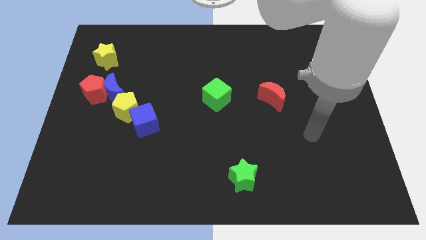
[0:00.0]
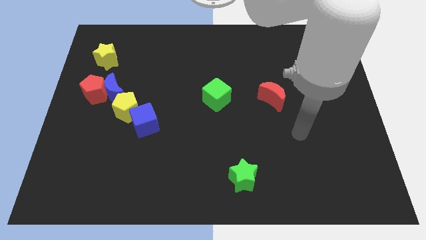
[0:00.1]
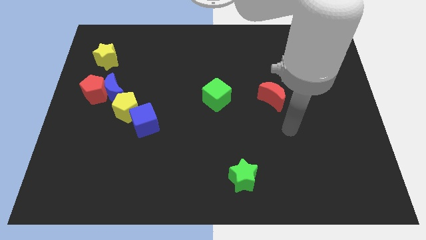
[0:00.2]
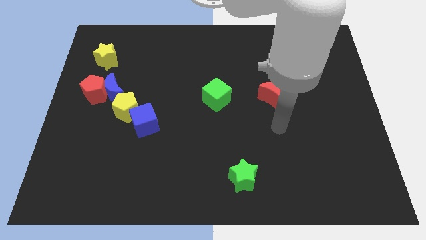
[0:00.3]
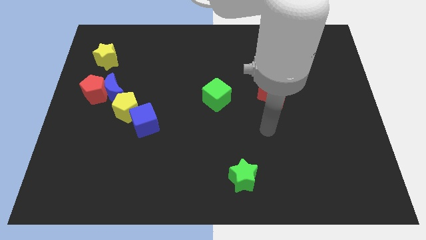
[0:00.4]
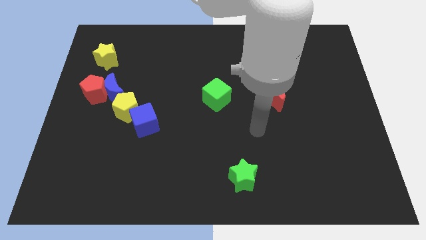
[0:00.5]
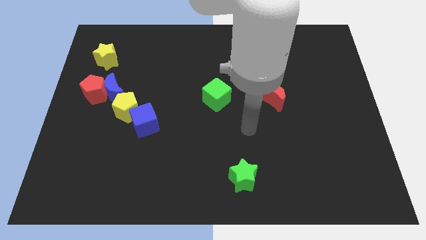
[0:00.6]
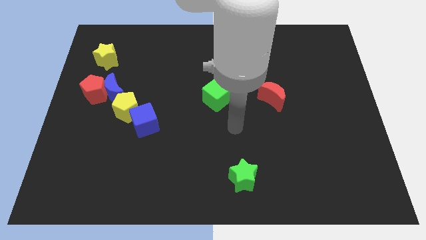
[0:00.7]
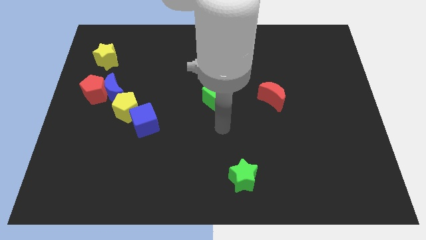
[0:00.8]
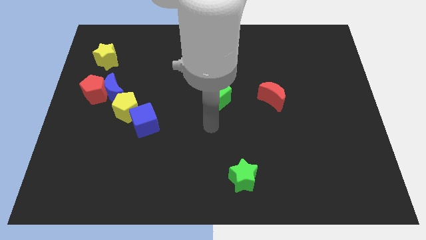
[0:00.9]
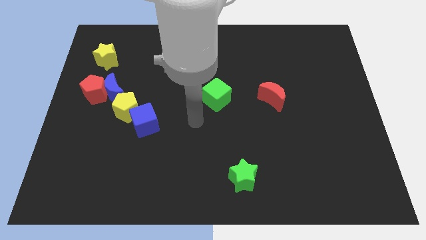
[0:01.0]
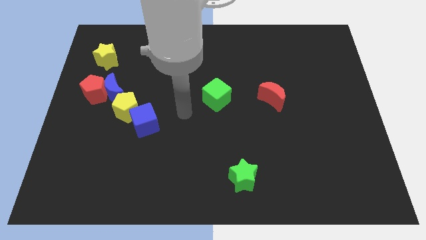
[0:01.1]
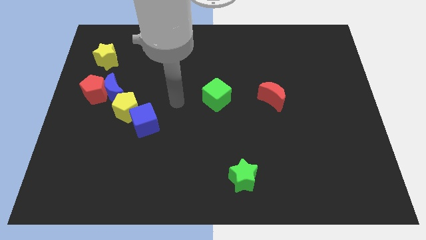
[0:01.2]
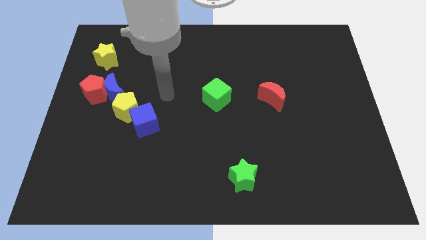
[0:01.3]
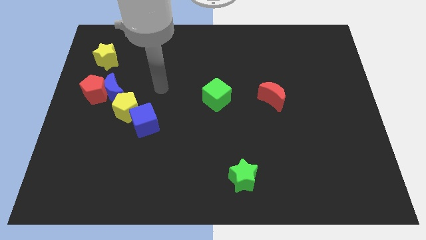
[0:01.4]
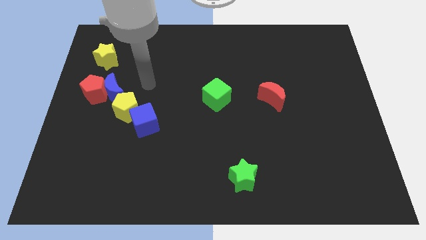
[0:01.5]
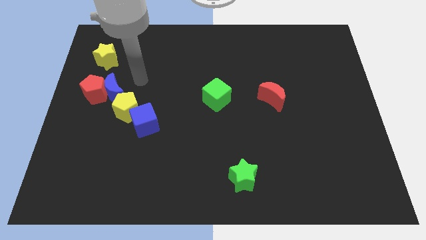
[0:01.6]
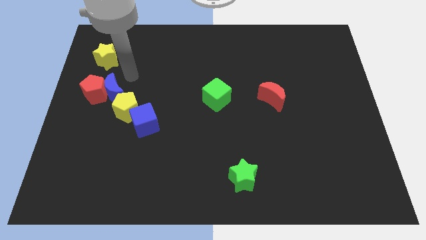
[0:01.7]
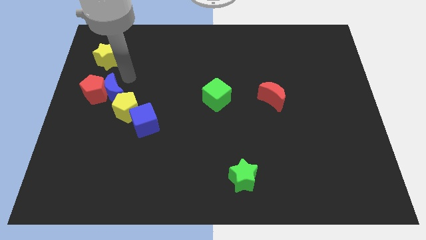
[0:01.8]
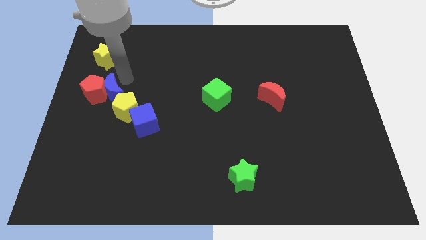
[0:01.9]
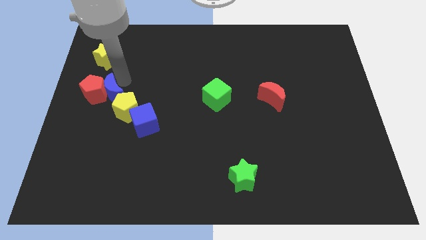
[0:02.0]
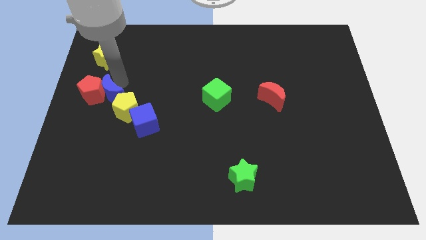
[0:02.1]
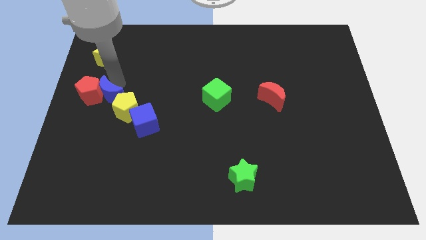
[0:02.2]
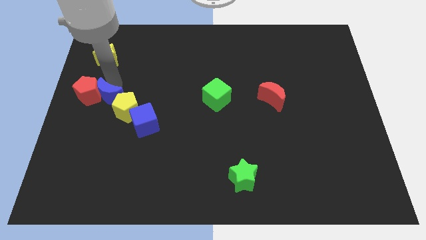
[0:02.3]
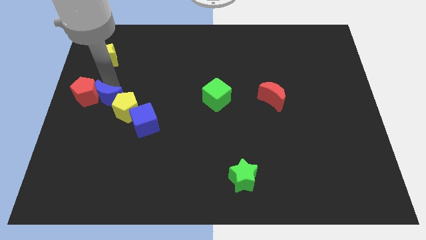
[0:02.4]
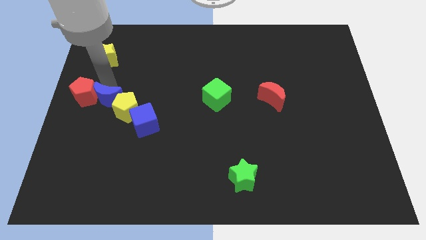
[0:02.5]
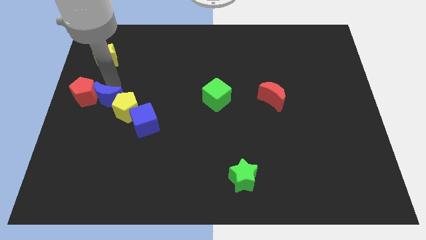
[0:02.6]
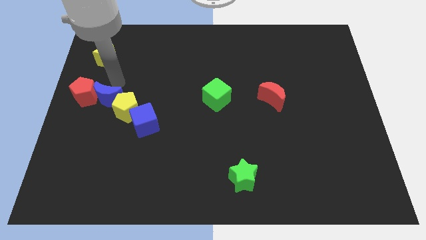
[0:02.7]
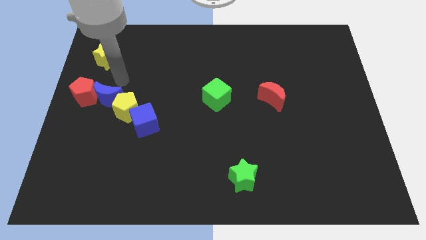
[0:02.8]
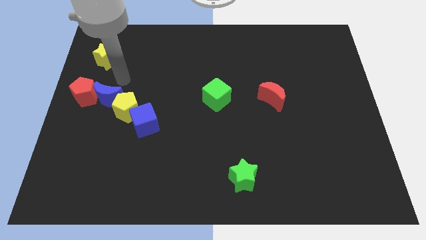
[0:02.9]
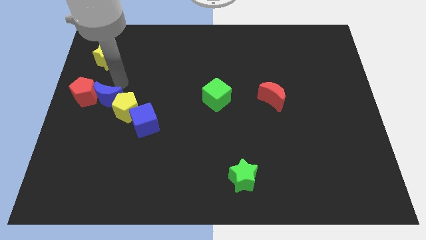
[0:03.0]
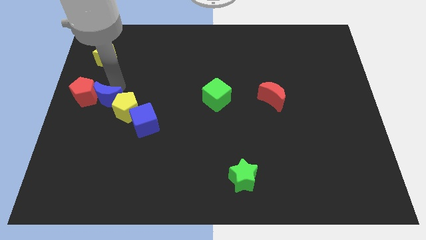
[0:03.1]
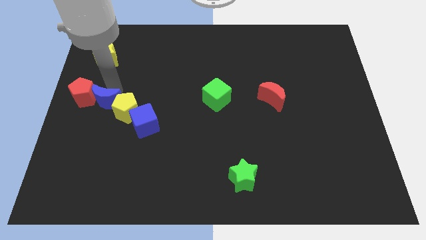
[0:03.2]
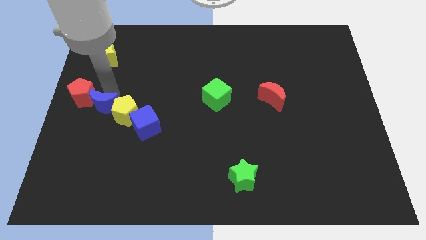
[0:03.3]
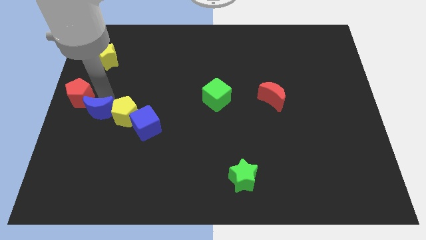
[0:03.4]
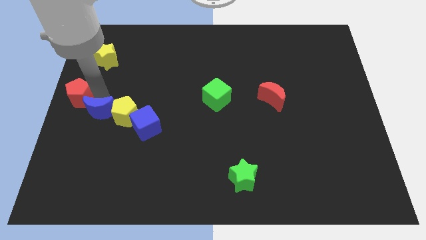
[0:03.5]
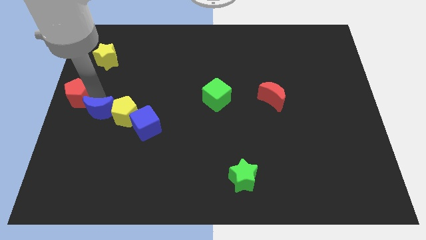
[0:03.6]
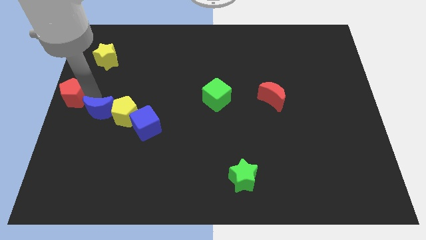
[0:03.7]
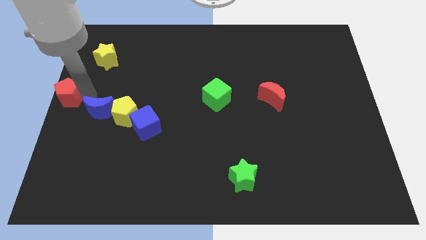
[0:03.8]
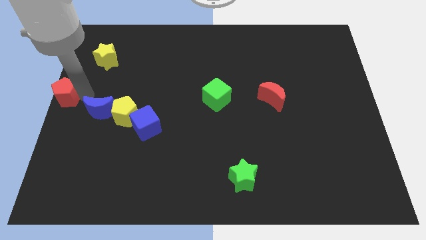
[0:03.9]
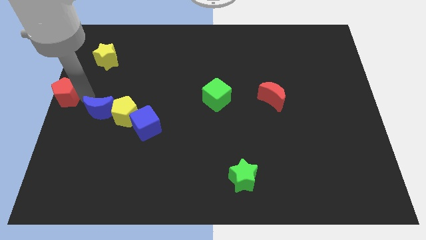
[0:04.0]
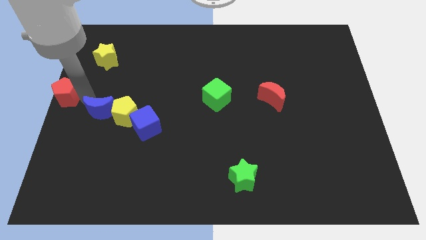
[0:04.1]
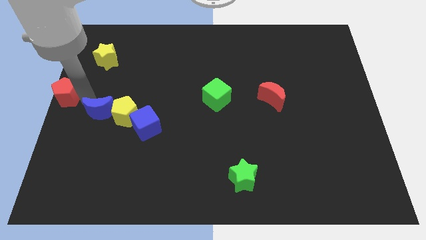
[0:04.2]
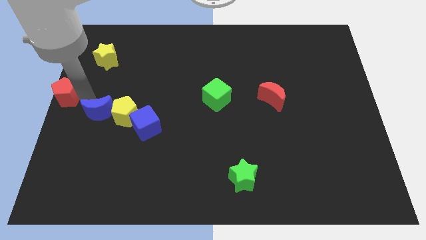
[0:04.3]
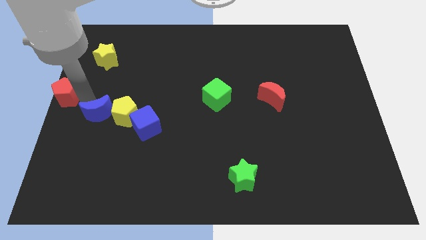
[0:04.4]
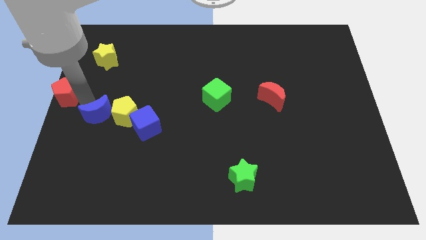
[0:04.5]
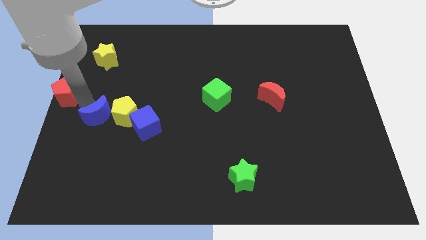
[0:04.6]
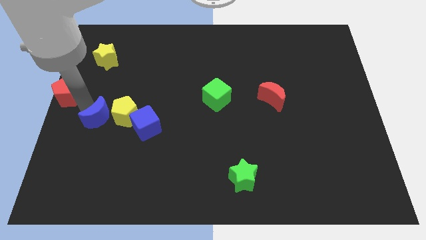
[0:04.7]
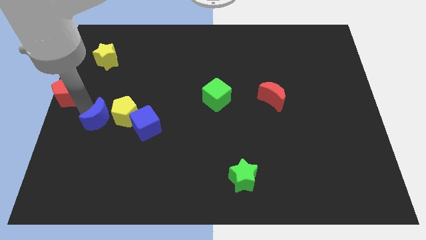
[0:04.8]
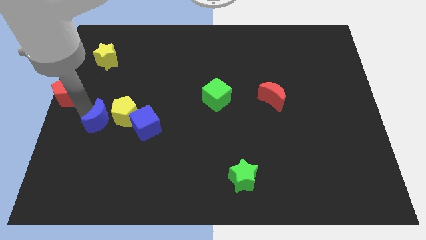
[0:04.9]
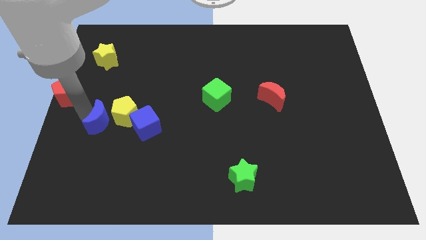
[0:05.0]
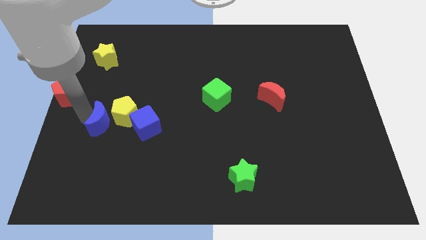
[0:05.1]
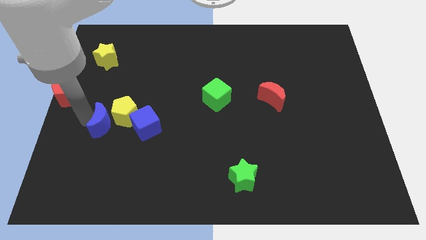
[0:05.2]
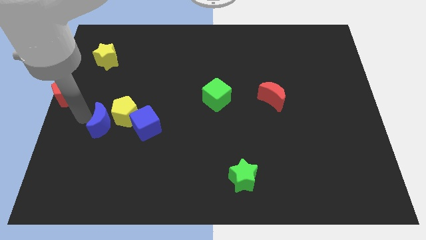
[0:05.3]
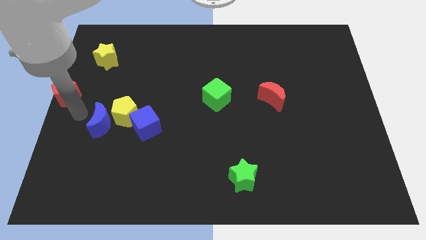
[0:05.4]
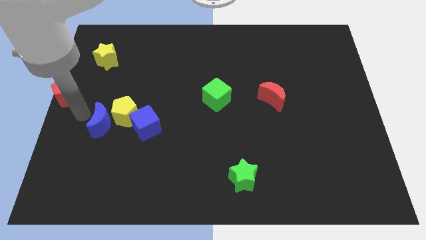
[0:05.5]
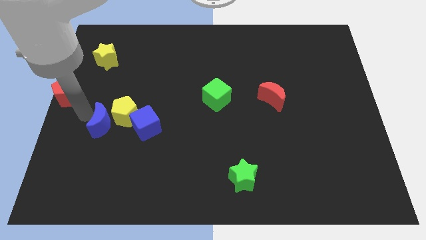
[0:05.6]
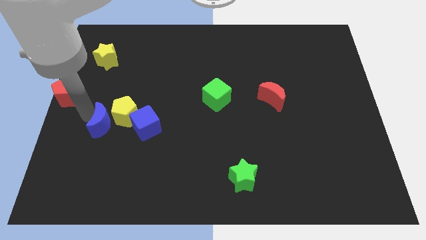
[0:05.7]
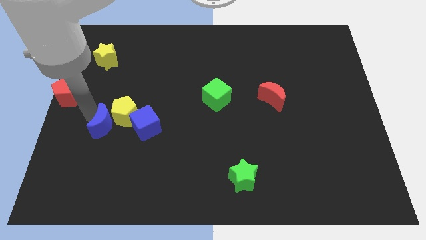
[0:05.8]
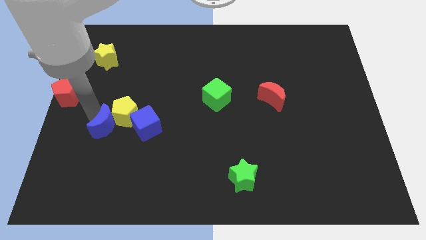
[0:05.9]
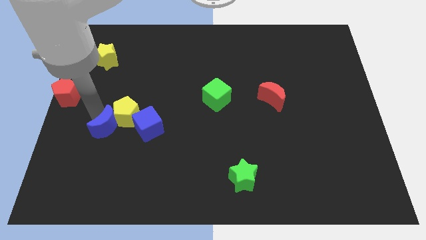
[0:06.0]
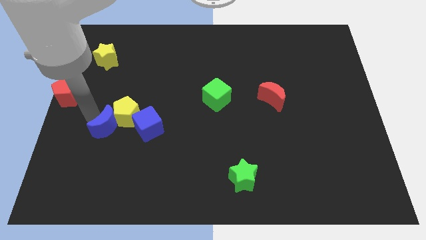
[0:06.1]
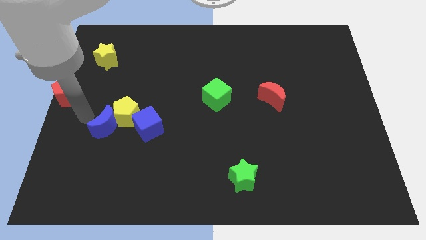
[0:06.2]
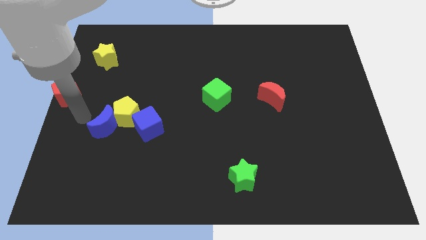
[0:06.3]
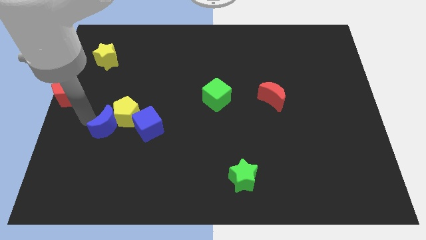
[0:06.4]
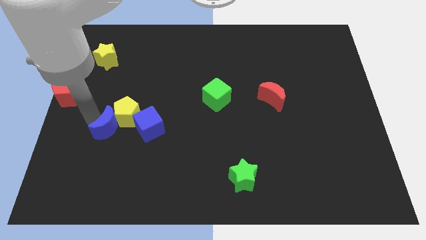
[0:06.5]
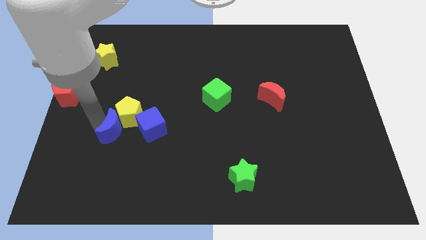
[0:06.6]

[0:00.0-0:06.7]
push the blue moon slightly downwards and to the right diagonally

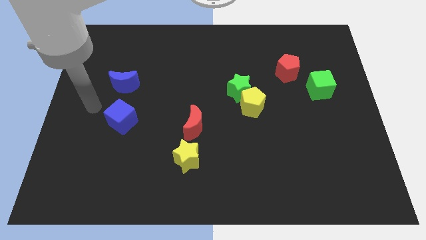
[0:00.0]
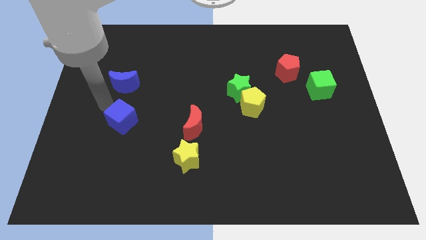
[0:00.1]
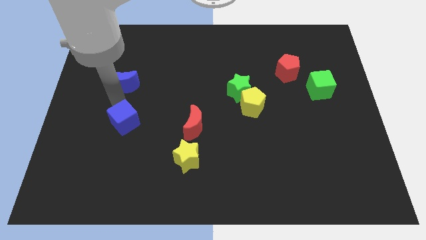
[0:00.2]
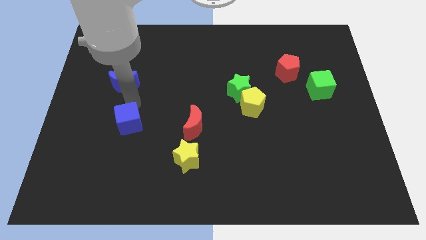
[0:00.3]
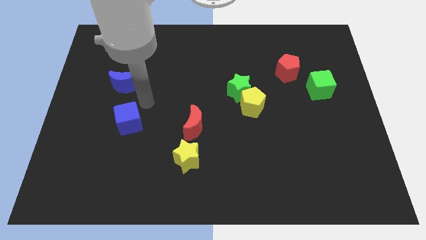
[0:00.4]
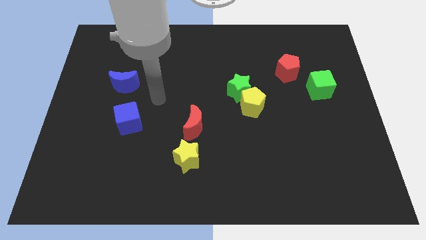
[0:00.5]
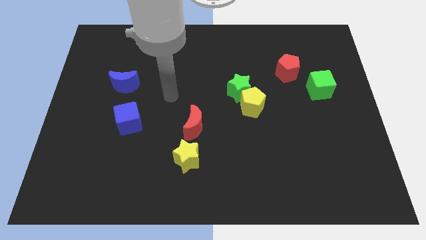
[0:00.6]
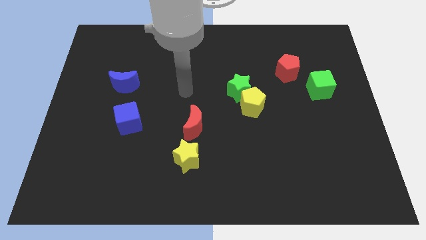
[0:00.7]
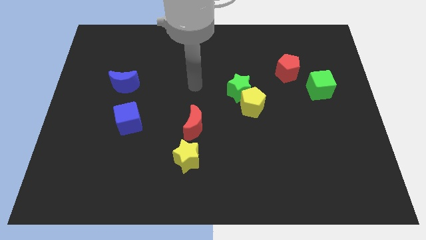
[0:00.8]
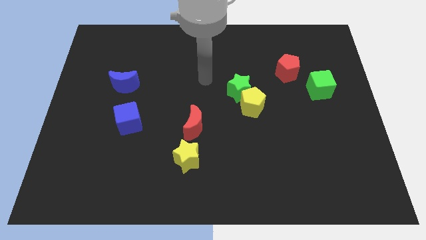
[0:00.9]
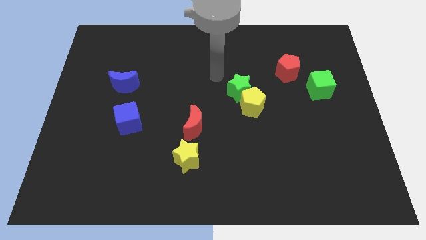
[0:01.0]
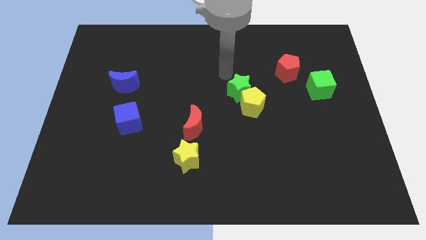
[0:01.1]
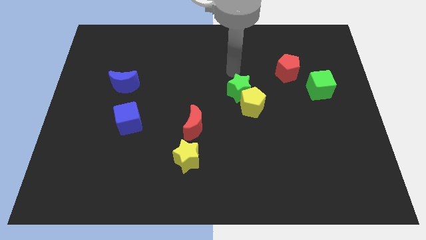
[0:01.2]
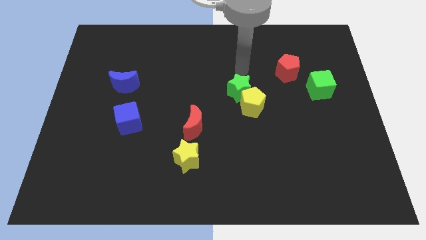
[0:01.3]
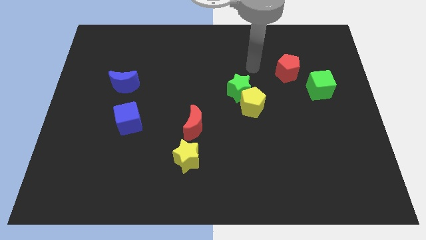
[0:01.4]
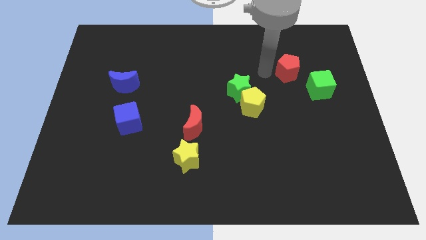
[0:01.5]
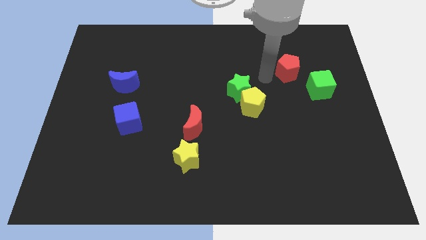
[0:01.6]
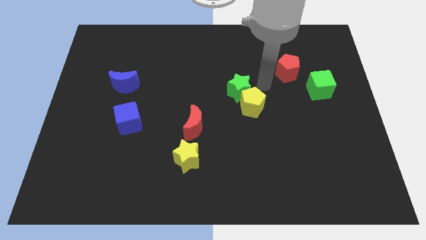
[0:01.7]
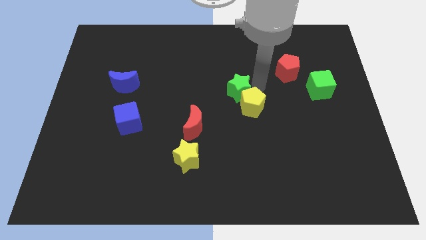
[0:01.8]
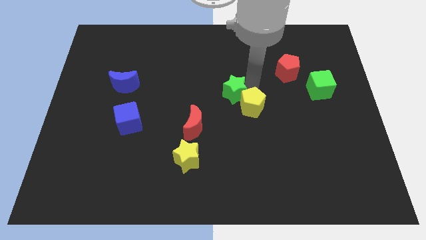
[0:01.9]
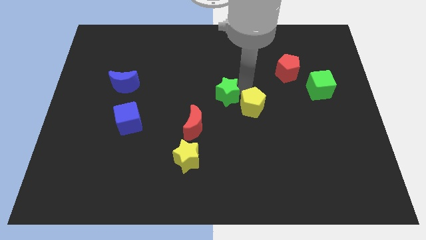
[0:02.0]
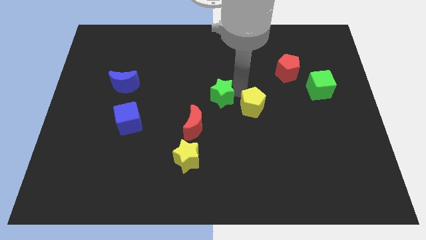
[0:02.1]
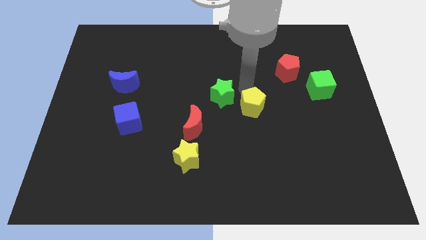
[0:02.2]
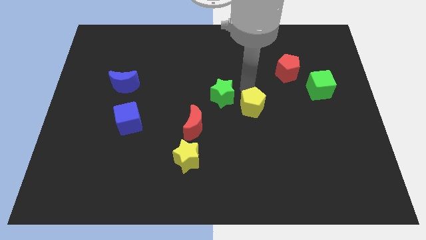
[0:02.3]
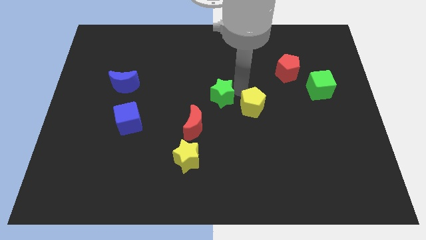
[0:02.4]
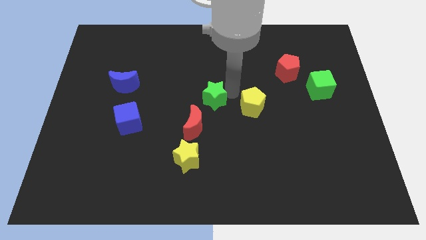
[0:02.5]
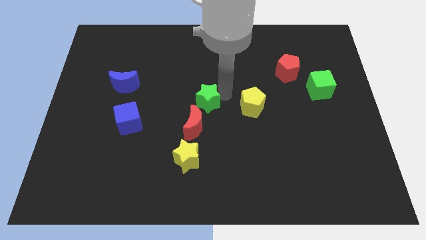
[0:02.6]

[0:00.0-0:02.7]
push the green star downwards and left diagonally a little
